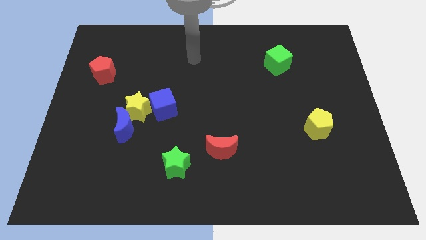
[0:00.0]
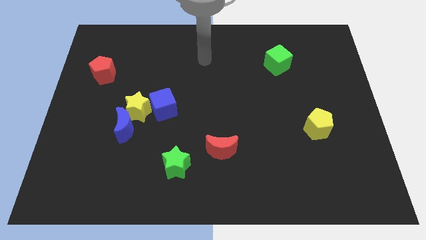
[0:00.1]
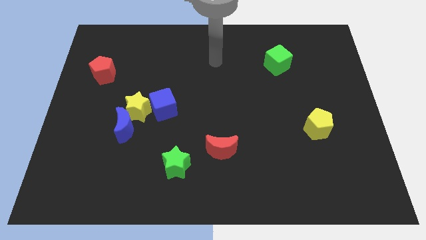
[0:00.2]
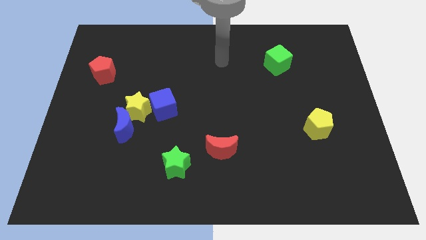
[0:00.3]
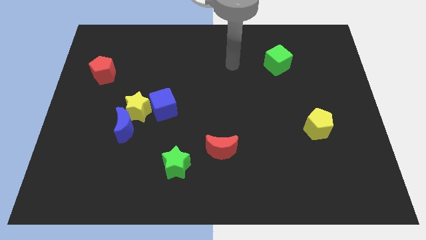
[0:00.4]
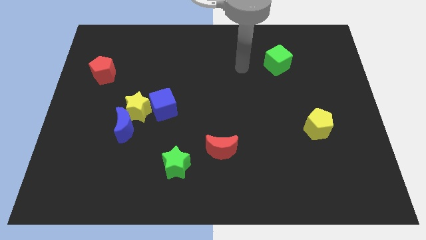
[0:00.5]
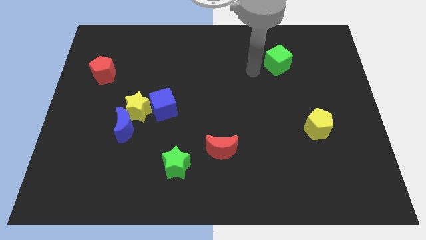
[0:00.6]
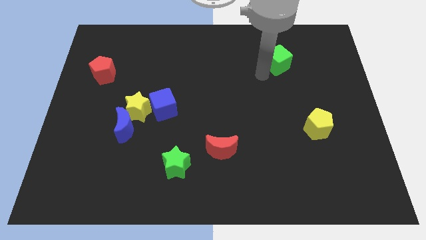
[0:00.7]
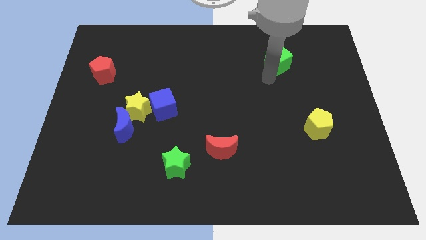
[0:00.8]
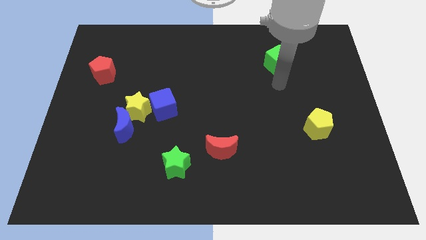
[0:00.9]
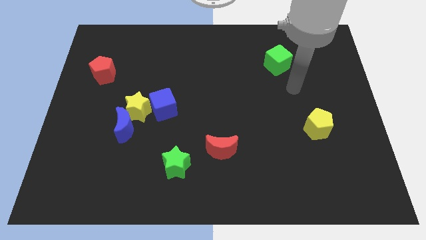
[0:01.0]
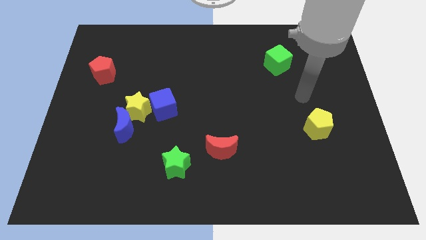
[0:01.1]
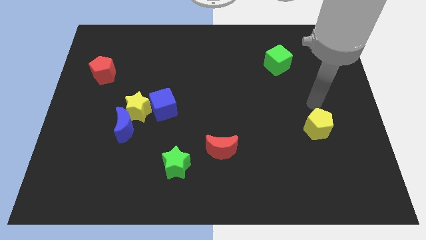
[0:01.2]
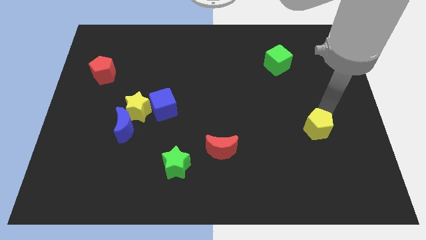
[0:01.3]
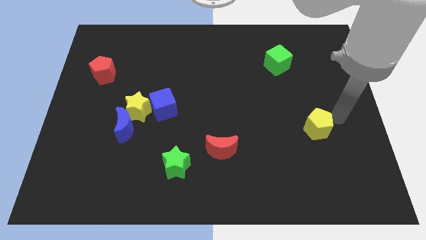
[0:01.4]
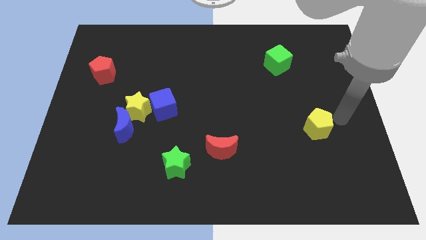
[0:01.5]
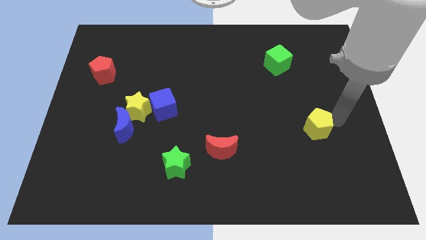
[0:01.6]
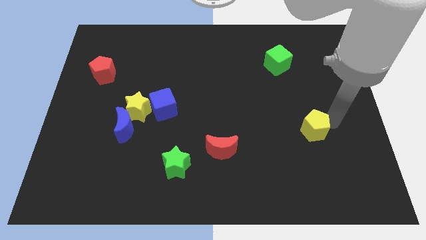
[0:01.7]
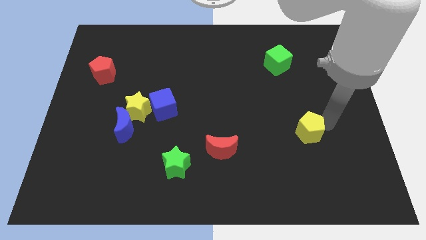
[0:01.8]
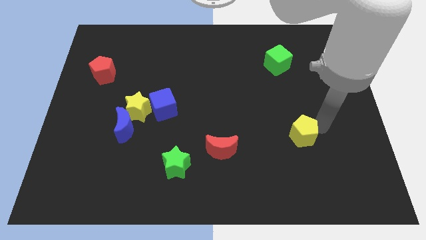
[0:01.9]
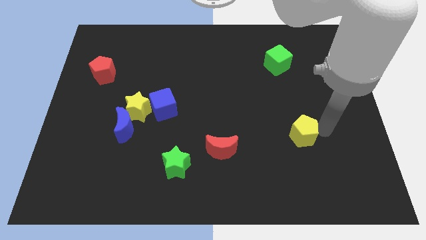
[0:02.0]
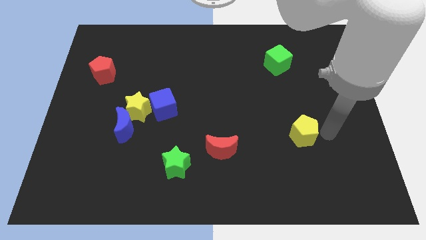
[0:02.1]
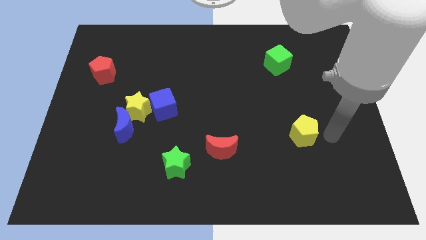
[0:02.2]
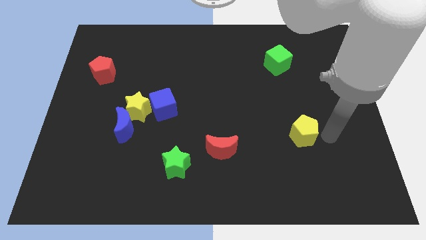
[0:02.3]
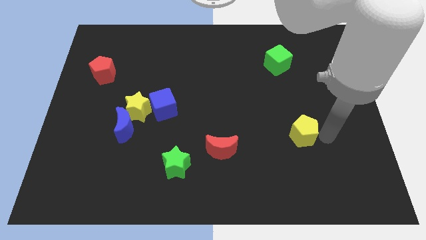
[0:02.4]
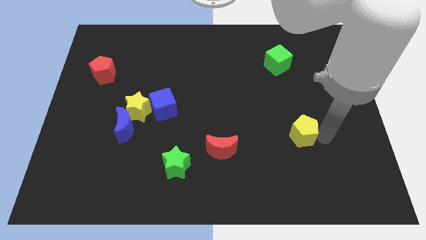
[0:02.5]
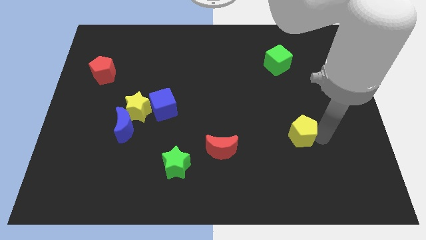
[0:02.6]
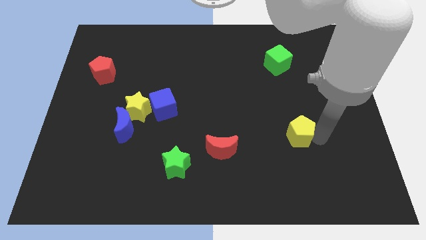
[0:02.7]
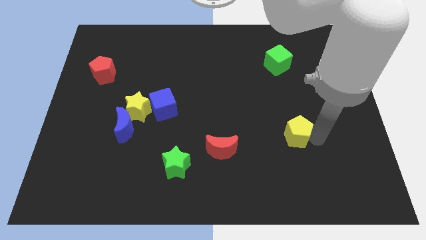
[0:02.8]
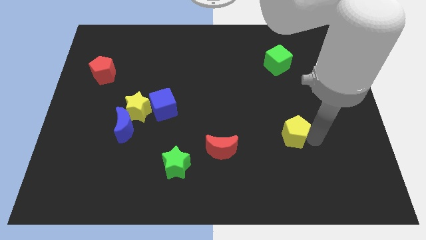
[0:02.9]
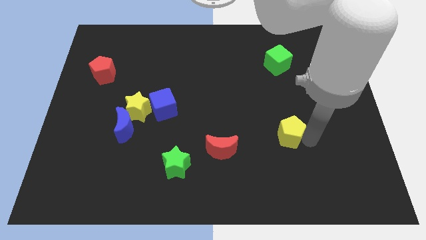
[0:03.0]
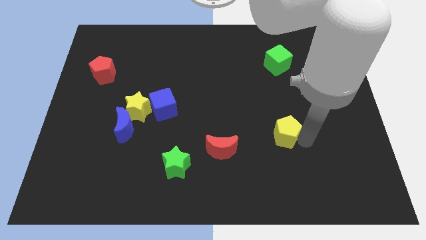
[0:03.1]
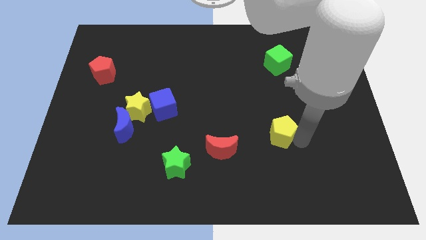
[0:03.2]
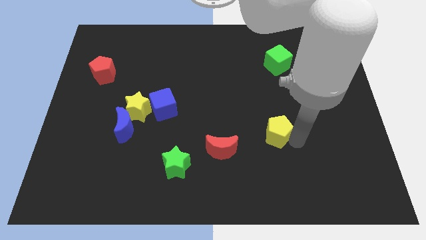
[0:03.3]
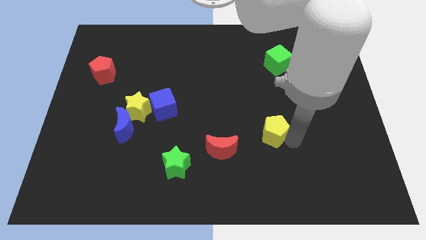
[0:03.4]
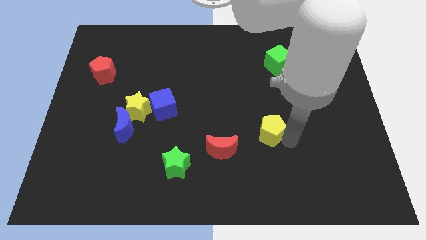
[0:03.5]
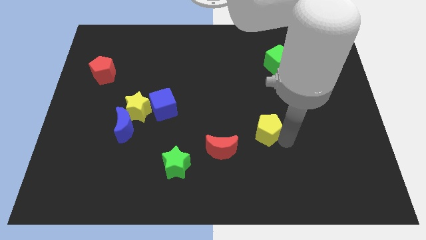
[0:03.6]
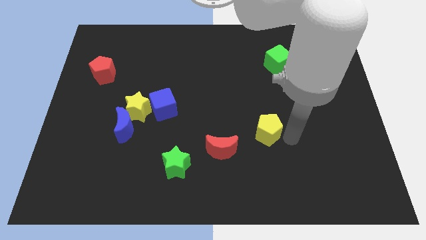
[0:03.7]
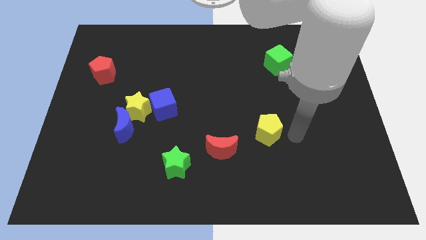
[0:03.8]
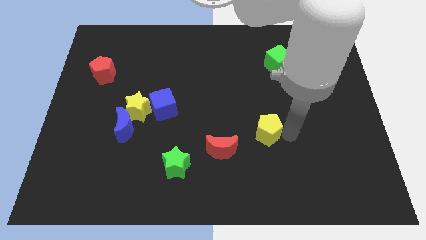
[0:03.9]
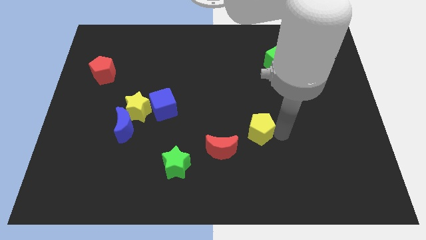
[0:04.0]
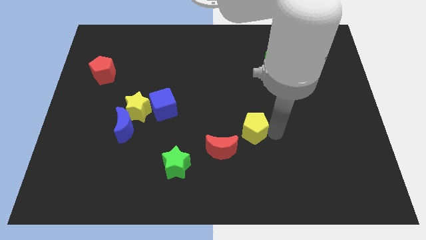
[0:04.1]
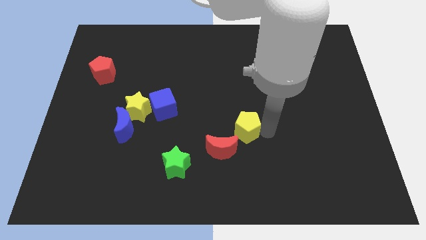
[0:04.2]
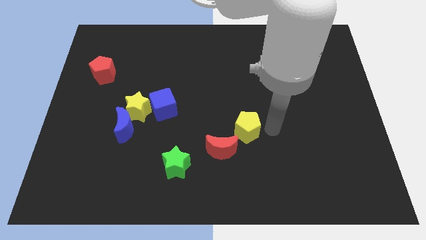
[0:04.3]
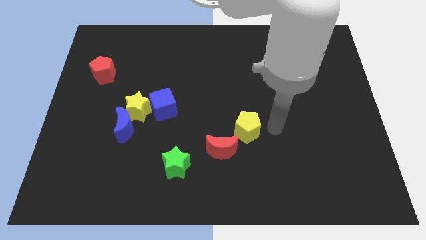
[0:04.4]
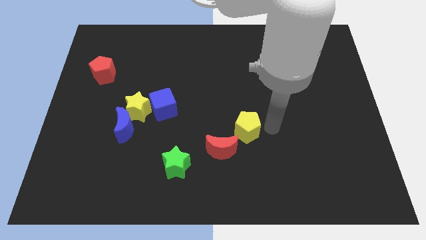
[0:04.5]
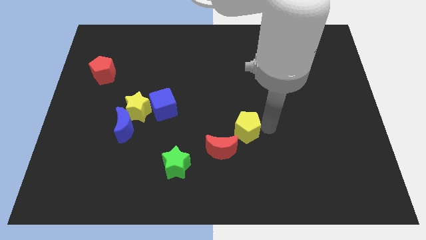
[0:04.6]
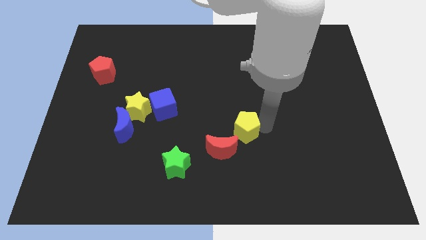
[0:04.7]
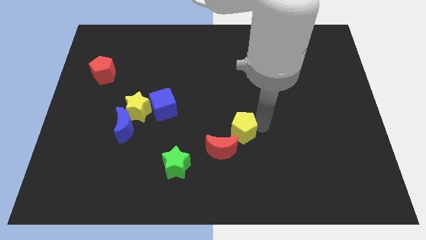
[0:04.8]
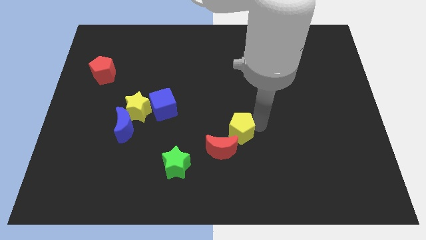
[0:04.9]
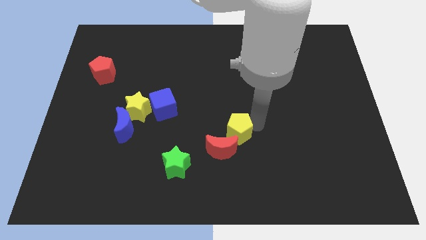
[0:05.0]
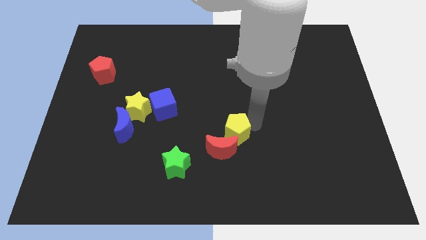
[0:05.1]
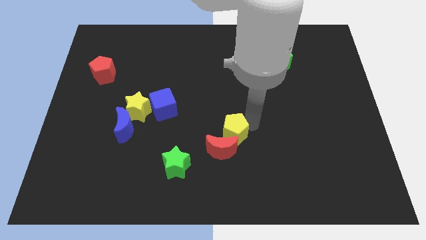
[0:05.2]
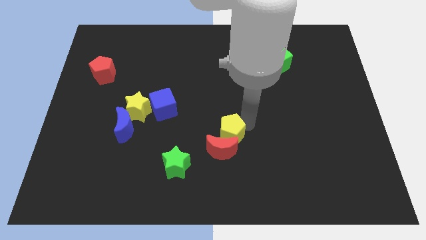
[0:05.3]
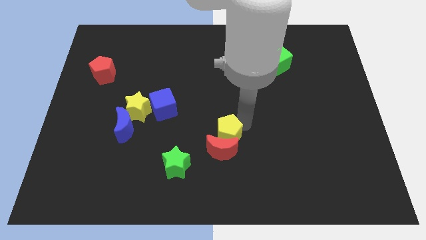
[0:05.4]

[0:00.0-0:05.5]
move the yellow pentagon left

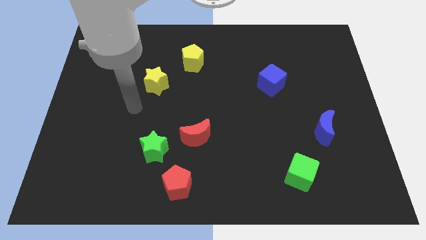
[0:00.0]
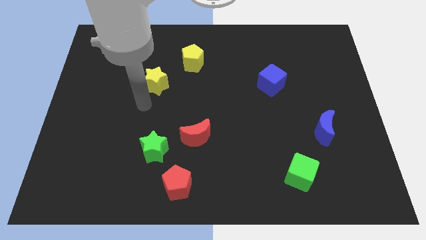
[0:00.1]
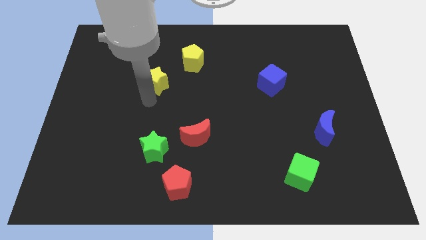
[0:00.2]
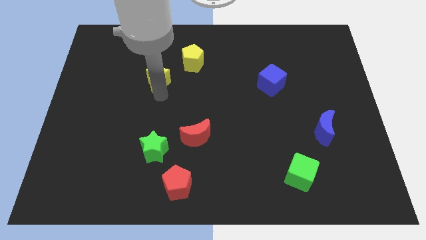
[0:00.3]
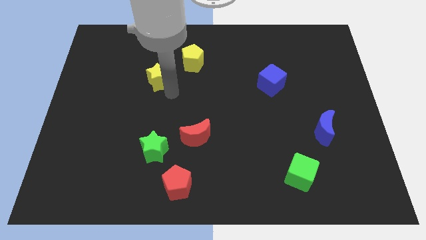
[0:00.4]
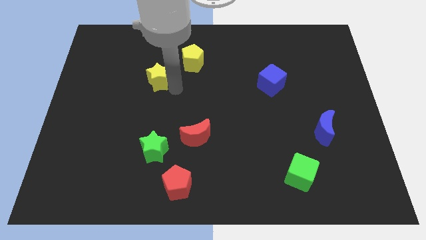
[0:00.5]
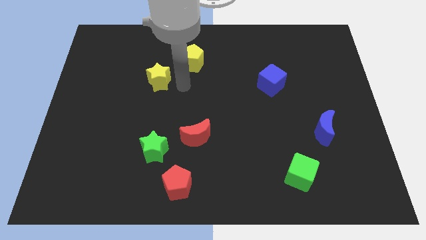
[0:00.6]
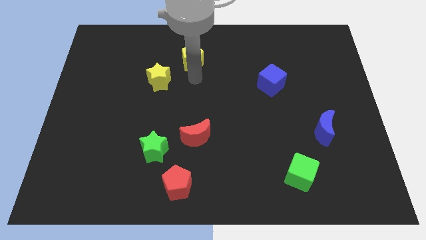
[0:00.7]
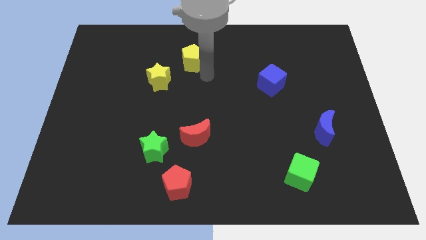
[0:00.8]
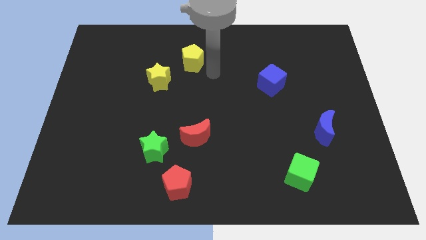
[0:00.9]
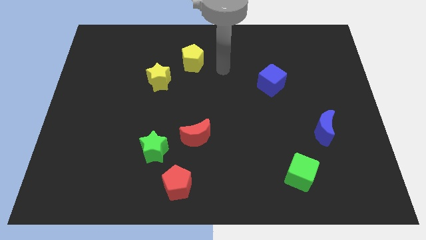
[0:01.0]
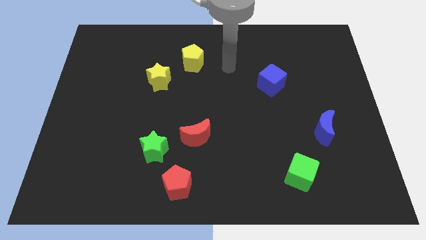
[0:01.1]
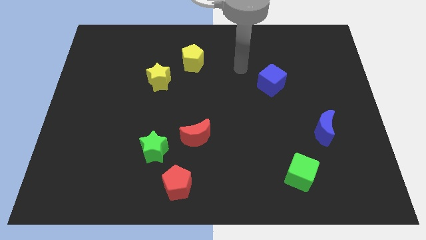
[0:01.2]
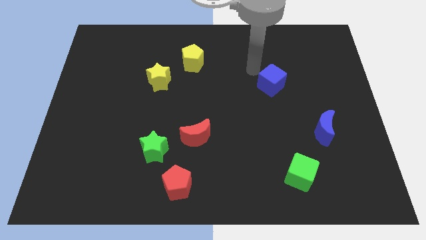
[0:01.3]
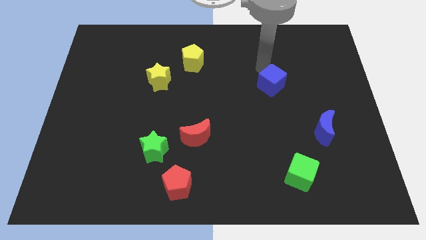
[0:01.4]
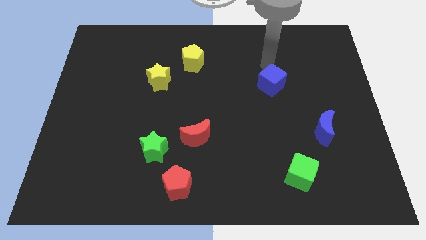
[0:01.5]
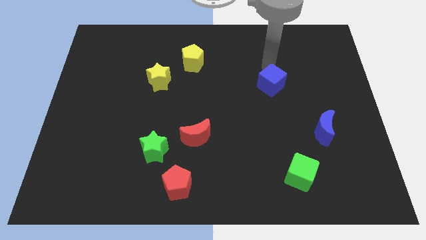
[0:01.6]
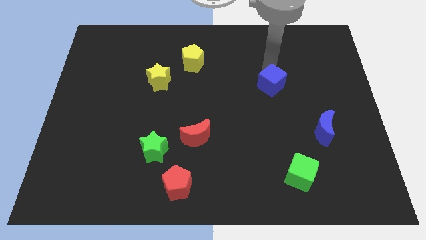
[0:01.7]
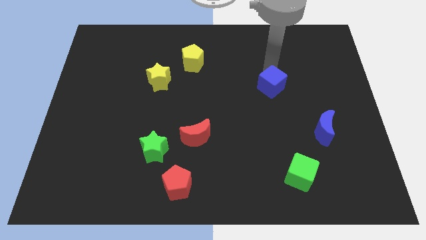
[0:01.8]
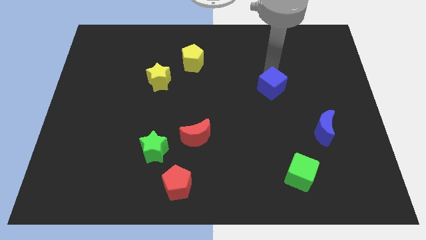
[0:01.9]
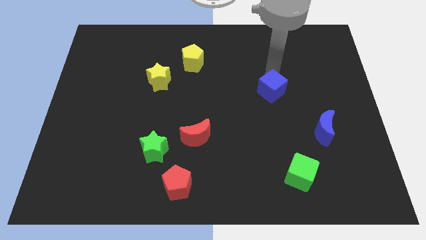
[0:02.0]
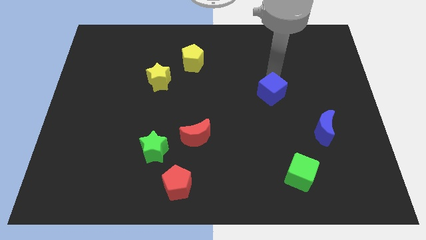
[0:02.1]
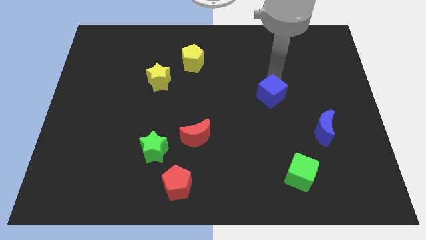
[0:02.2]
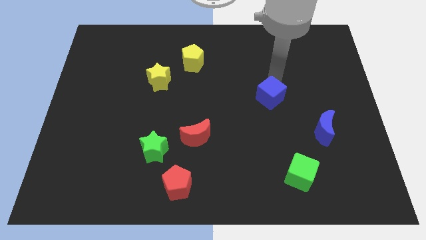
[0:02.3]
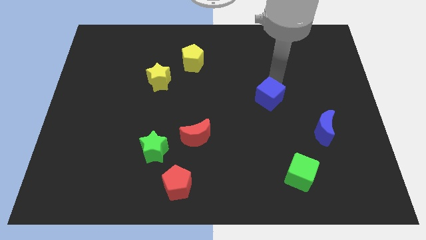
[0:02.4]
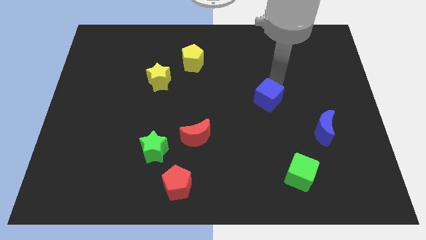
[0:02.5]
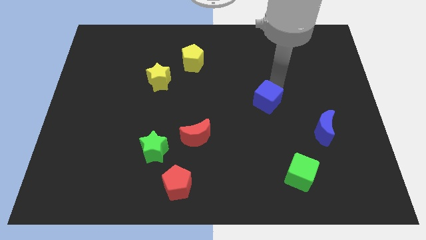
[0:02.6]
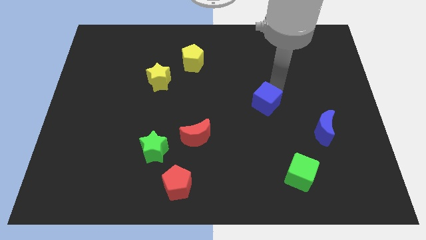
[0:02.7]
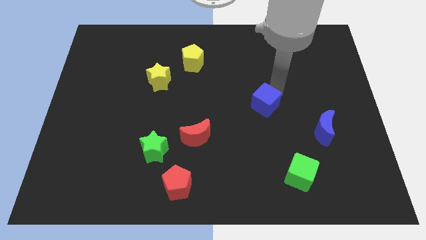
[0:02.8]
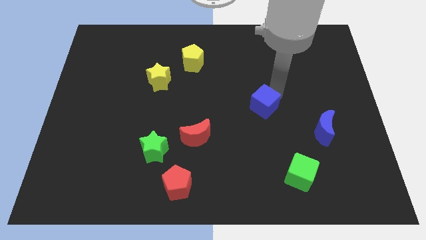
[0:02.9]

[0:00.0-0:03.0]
move the blue cube down a little bit
